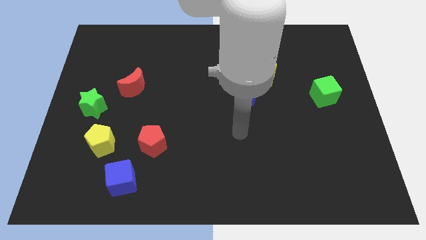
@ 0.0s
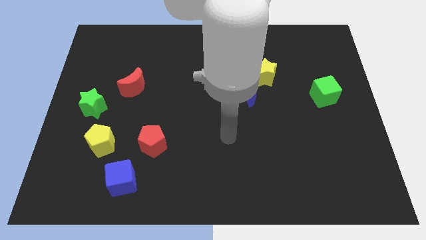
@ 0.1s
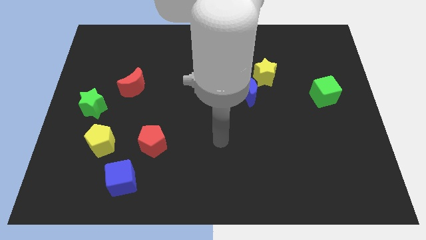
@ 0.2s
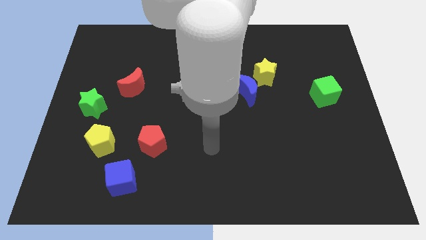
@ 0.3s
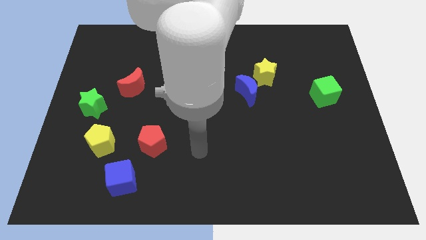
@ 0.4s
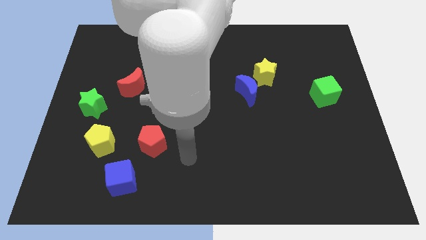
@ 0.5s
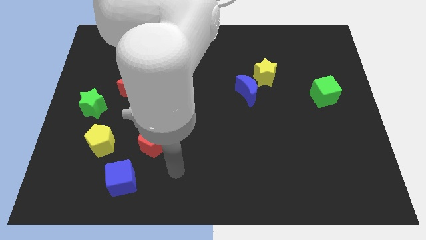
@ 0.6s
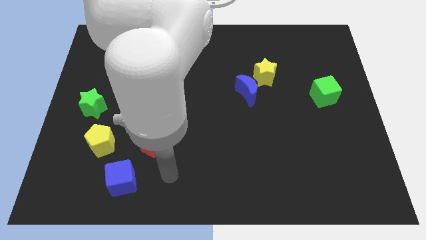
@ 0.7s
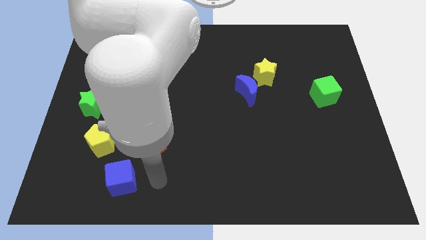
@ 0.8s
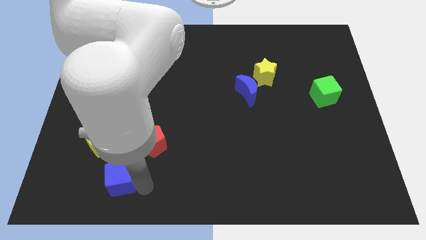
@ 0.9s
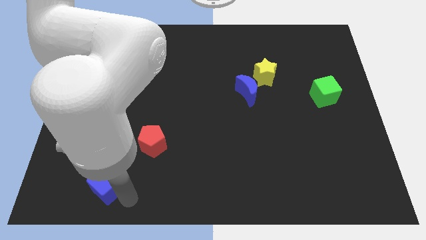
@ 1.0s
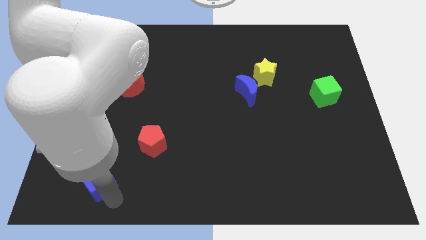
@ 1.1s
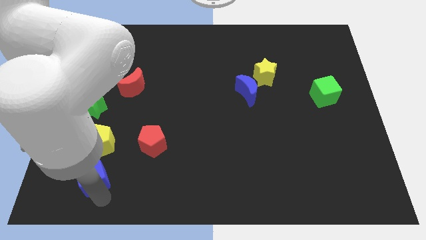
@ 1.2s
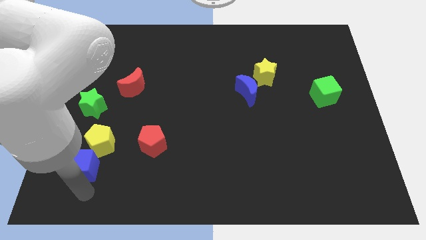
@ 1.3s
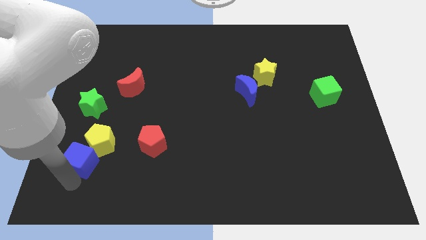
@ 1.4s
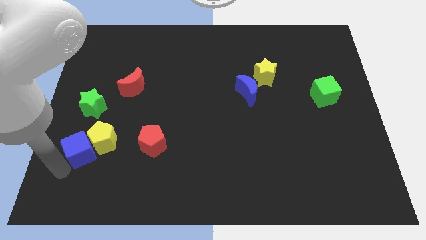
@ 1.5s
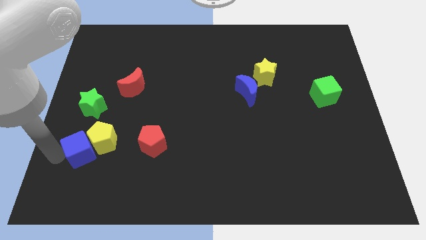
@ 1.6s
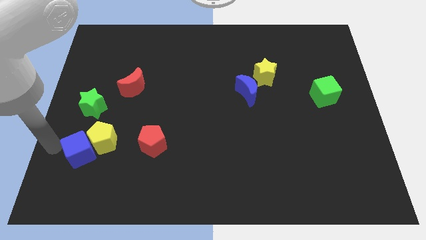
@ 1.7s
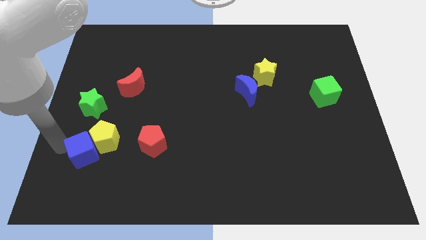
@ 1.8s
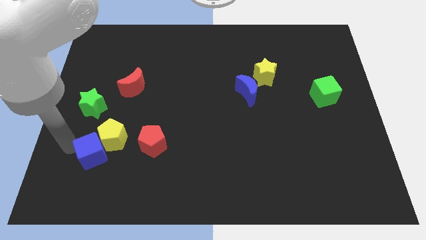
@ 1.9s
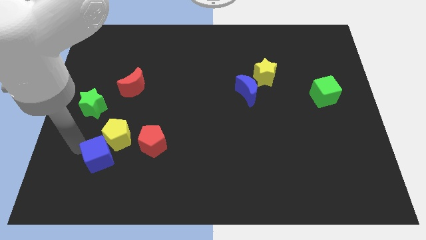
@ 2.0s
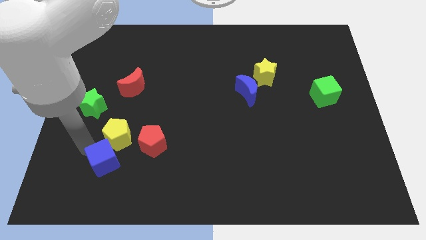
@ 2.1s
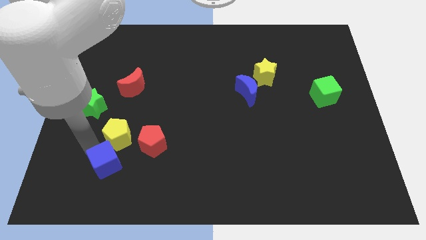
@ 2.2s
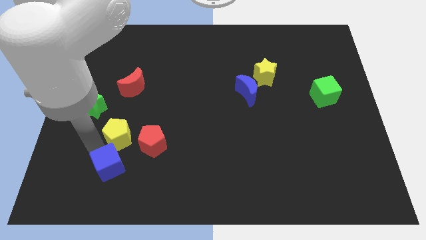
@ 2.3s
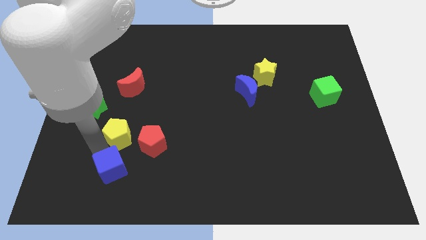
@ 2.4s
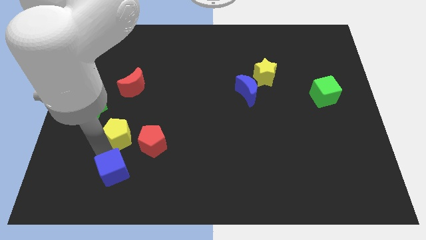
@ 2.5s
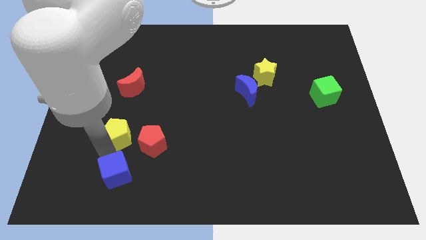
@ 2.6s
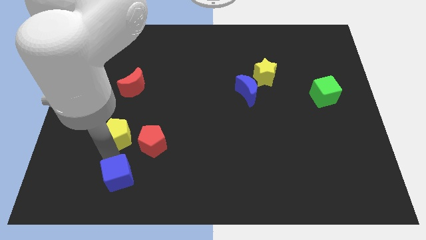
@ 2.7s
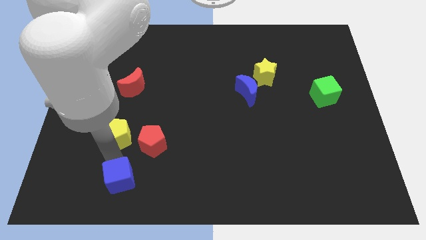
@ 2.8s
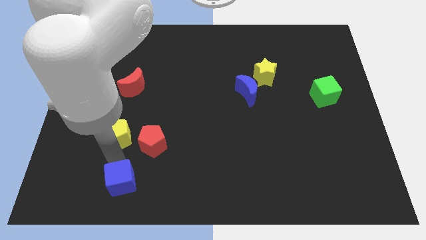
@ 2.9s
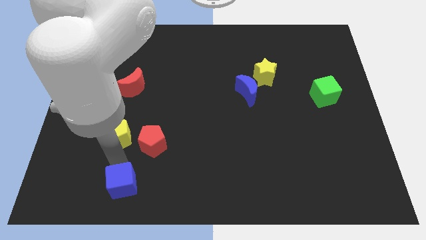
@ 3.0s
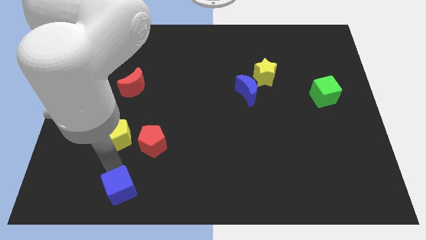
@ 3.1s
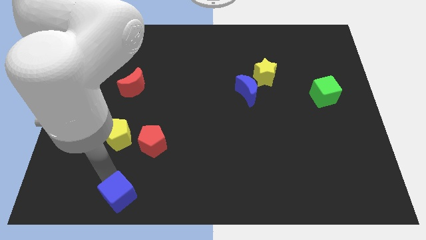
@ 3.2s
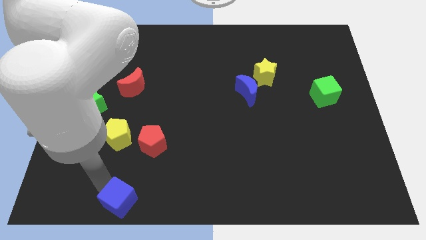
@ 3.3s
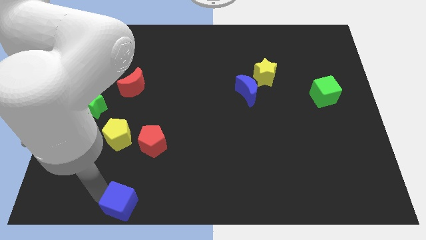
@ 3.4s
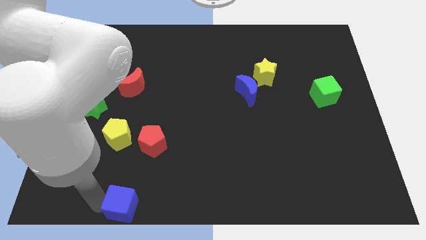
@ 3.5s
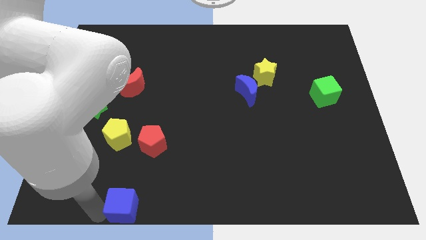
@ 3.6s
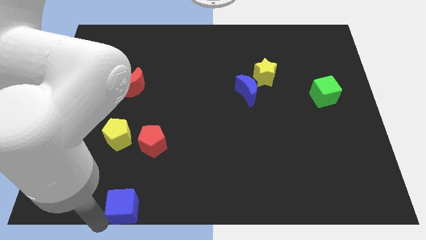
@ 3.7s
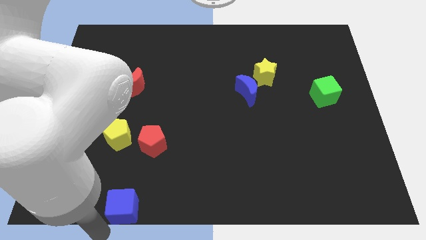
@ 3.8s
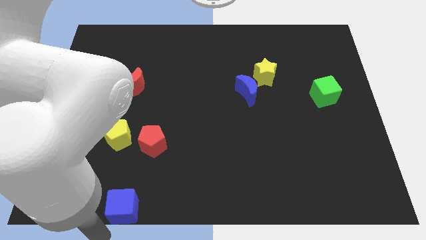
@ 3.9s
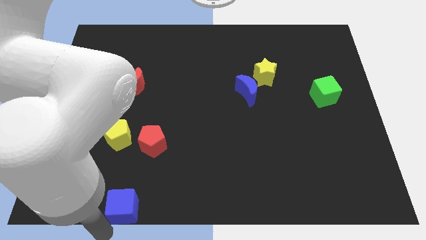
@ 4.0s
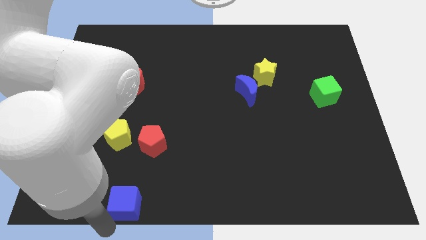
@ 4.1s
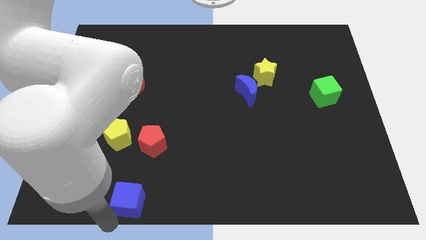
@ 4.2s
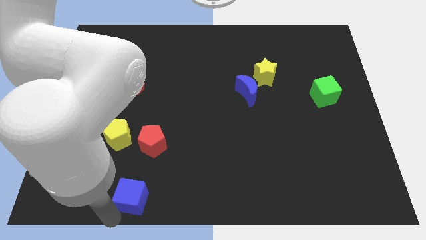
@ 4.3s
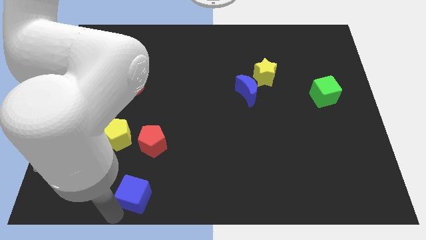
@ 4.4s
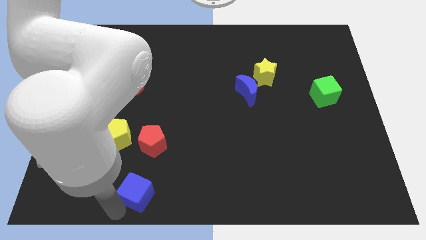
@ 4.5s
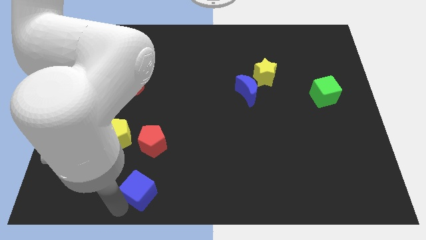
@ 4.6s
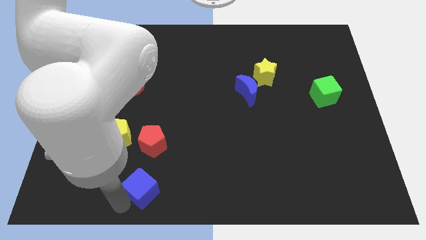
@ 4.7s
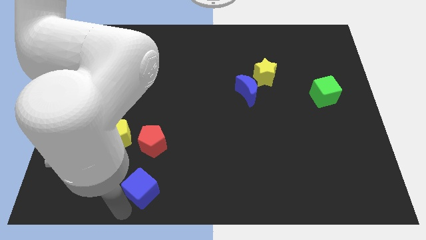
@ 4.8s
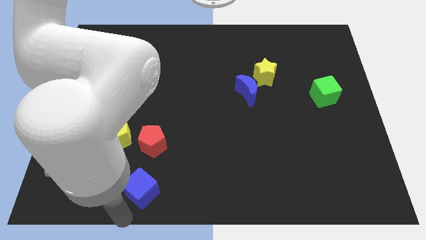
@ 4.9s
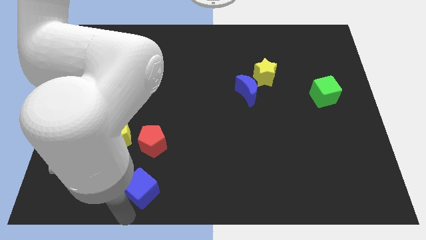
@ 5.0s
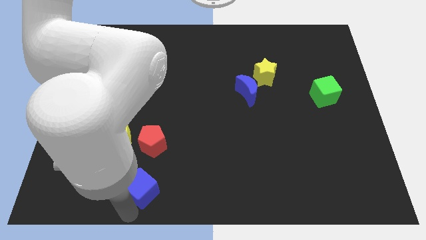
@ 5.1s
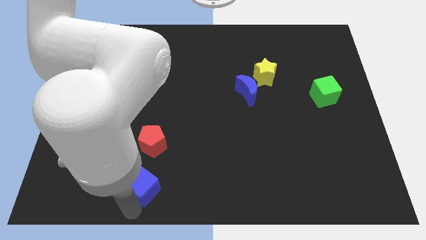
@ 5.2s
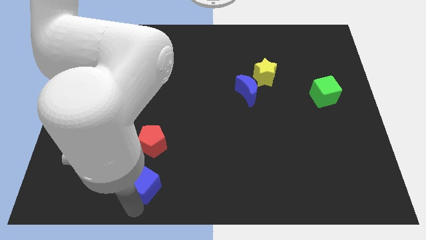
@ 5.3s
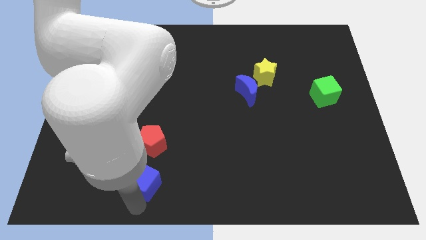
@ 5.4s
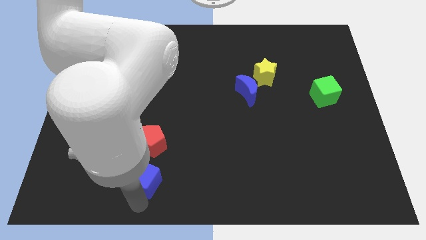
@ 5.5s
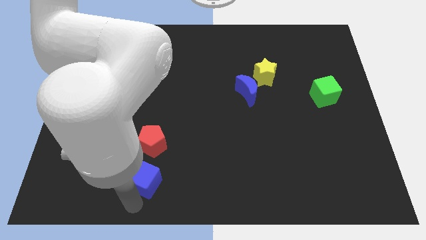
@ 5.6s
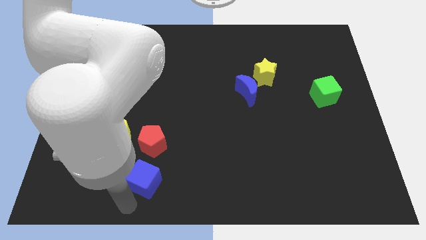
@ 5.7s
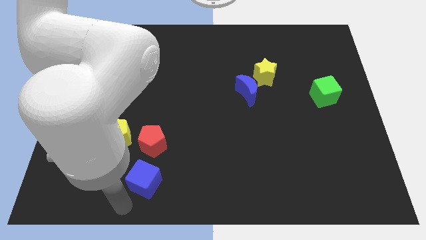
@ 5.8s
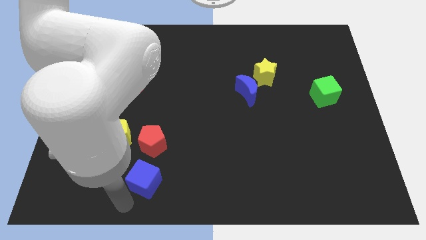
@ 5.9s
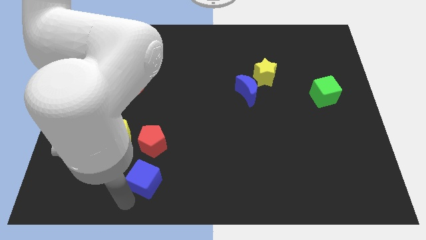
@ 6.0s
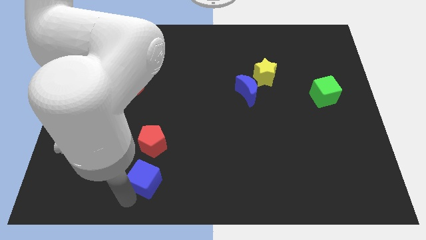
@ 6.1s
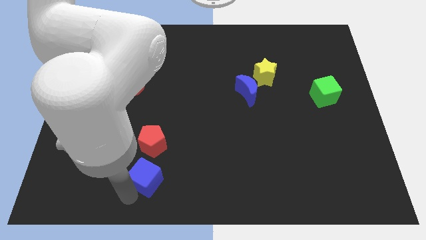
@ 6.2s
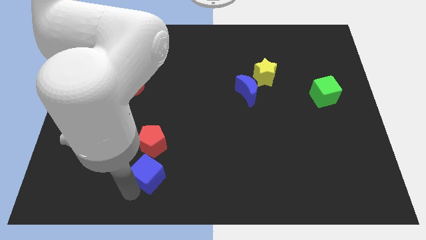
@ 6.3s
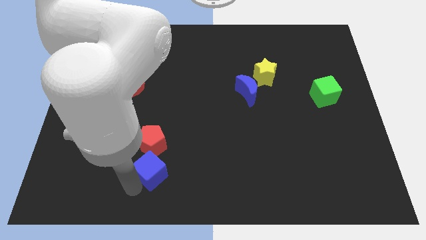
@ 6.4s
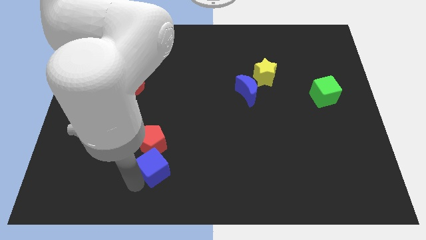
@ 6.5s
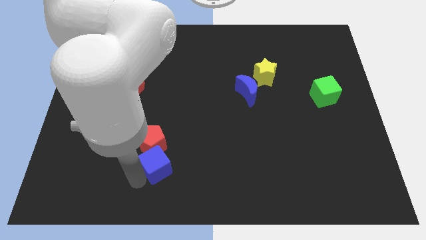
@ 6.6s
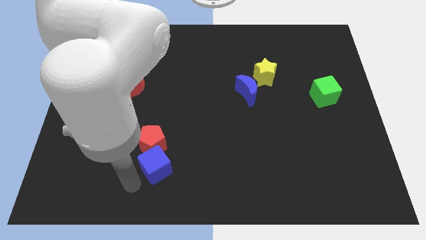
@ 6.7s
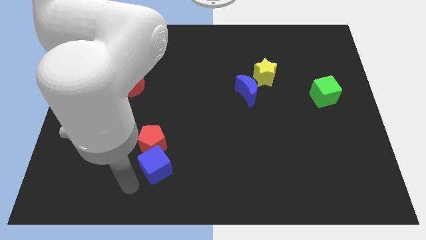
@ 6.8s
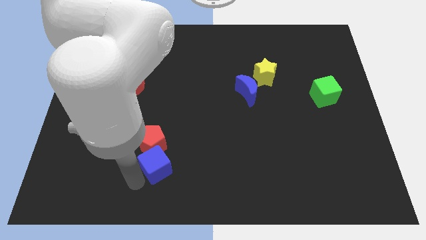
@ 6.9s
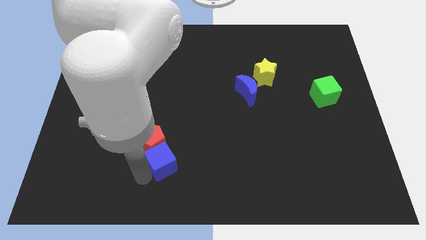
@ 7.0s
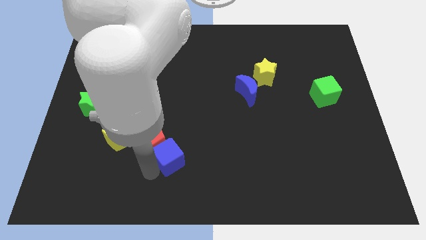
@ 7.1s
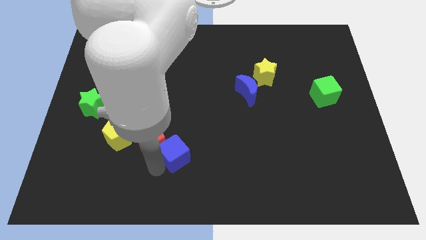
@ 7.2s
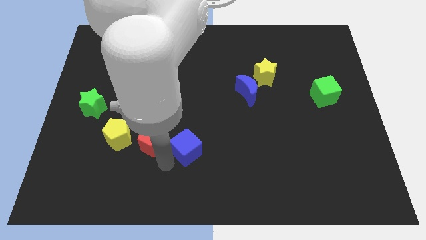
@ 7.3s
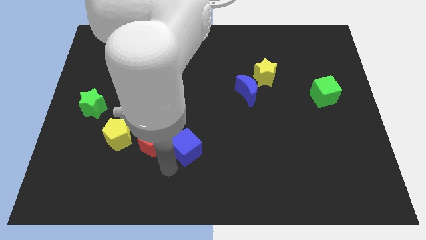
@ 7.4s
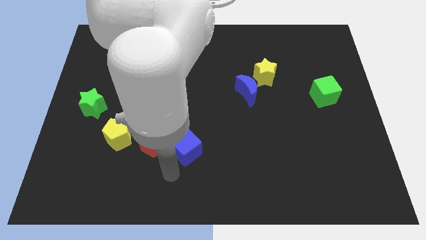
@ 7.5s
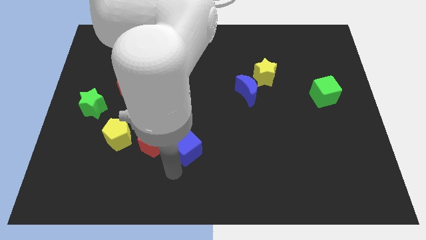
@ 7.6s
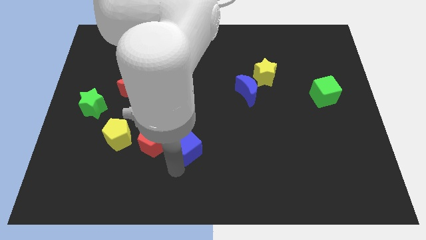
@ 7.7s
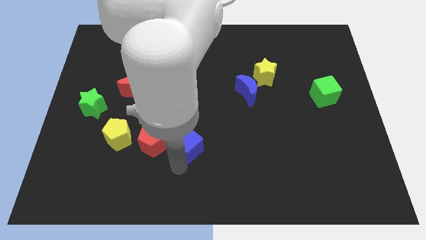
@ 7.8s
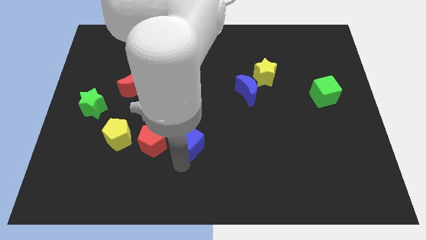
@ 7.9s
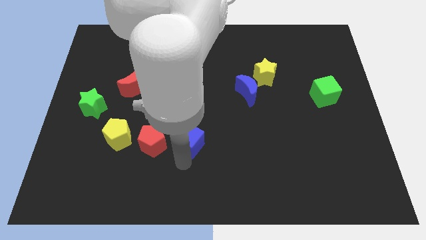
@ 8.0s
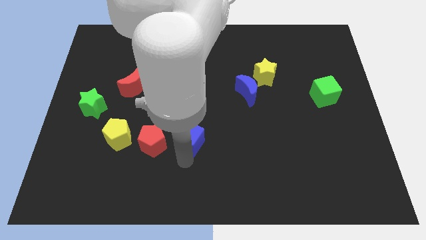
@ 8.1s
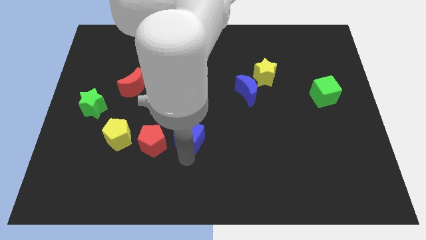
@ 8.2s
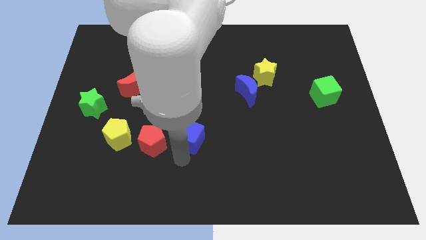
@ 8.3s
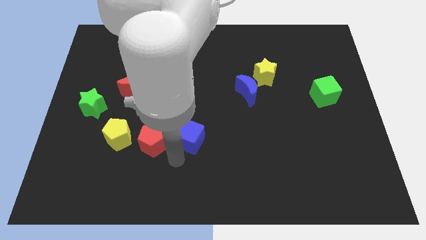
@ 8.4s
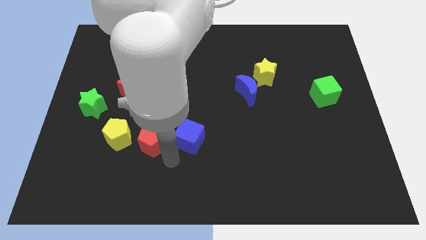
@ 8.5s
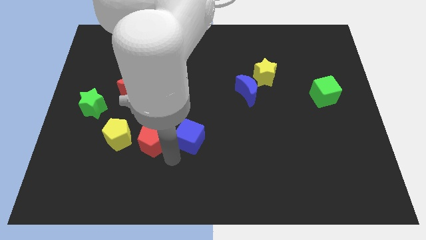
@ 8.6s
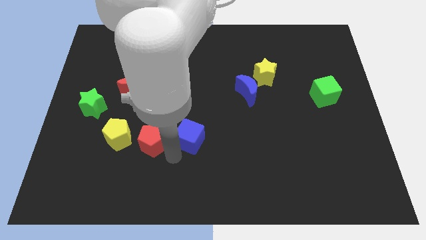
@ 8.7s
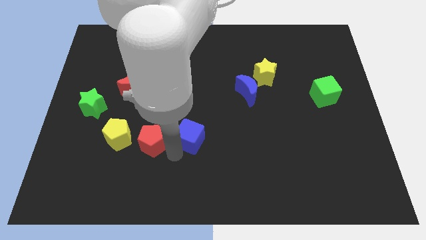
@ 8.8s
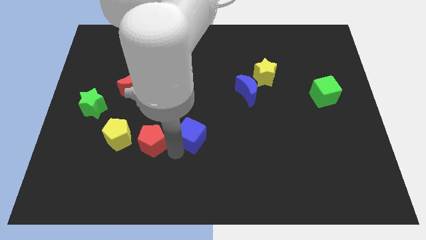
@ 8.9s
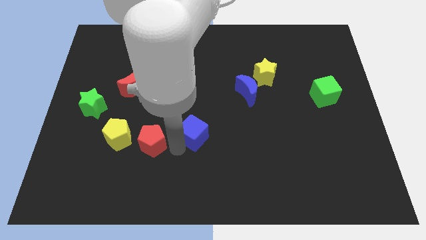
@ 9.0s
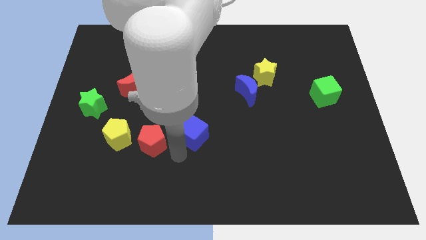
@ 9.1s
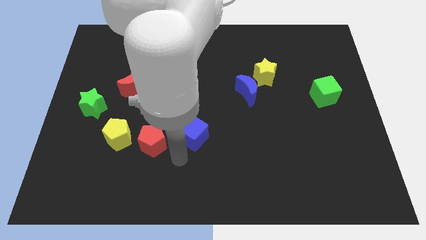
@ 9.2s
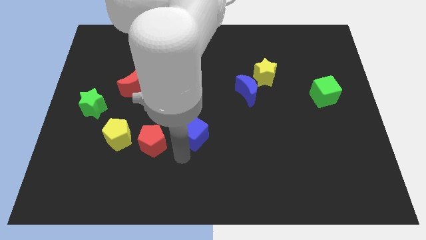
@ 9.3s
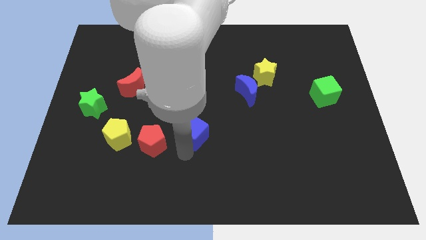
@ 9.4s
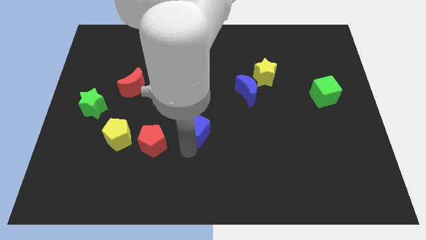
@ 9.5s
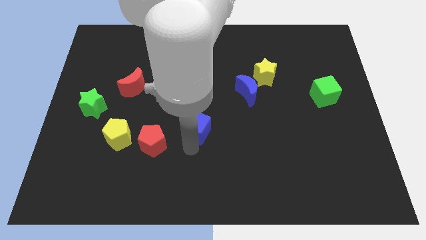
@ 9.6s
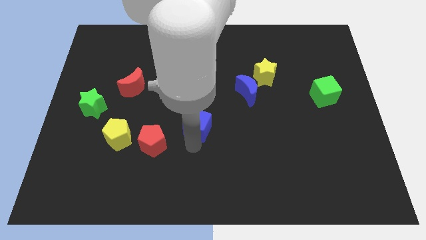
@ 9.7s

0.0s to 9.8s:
move the blue cube upwards and right diagonally
